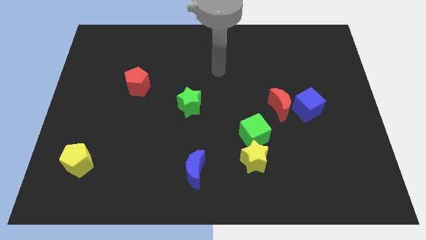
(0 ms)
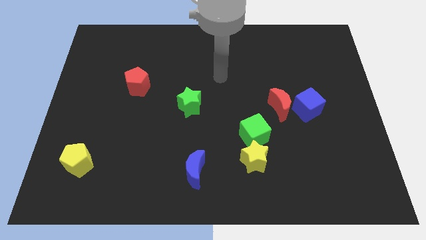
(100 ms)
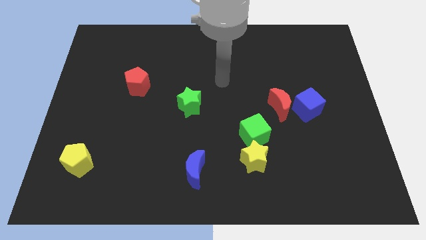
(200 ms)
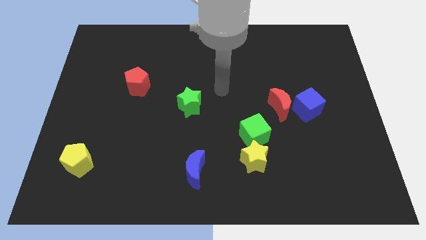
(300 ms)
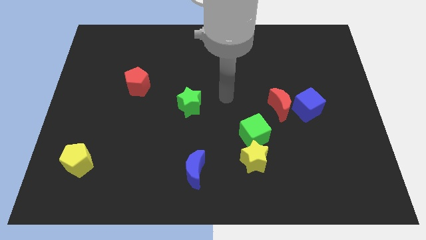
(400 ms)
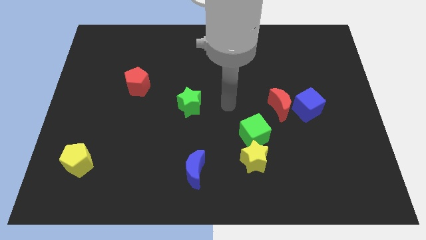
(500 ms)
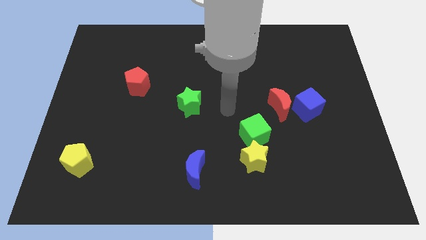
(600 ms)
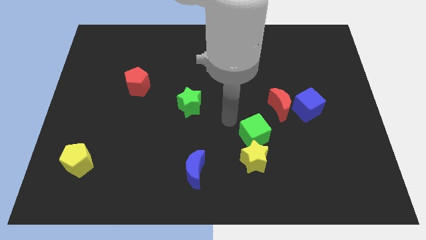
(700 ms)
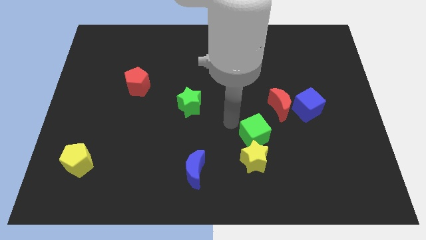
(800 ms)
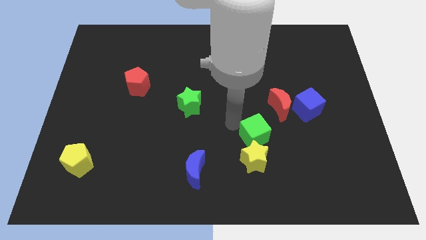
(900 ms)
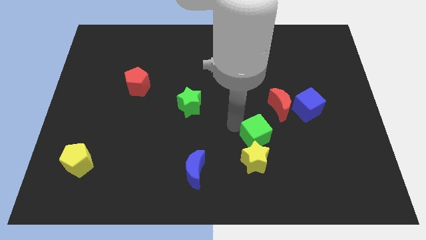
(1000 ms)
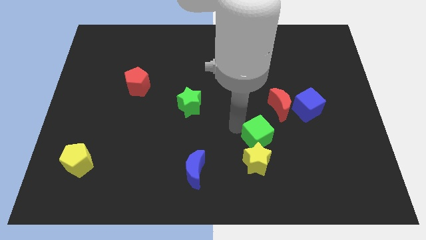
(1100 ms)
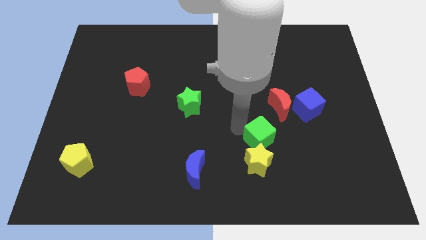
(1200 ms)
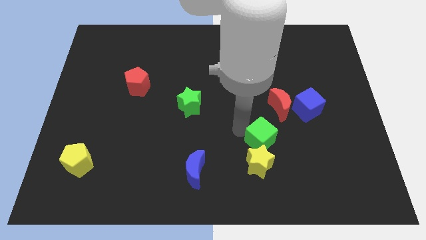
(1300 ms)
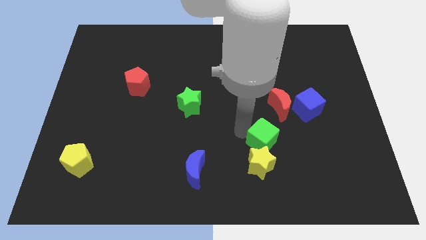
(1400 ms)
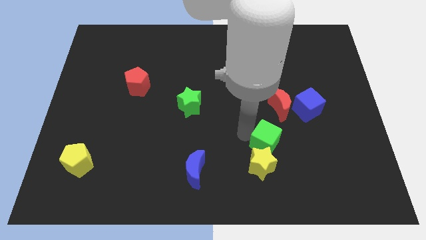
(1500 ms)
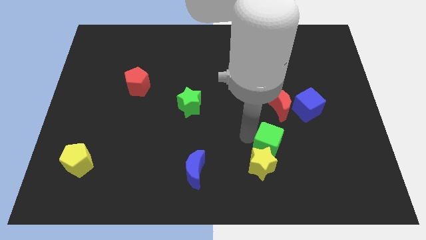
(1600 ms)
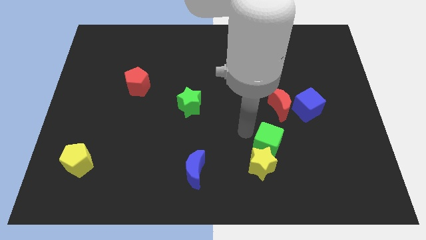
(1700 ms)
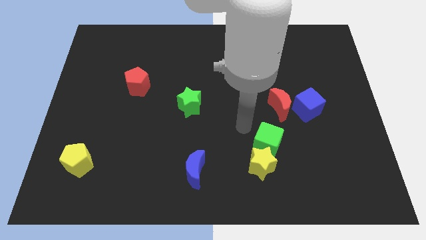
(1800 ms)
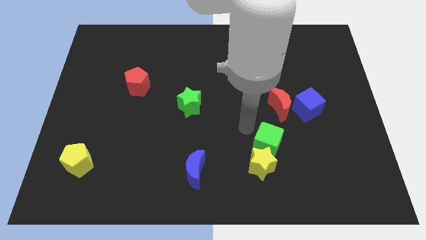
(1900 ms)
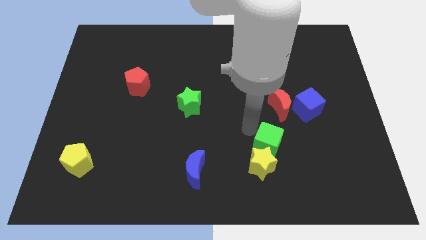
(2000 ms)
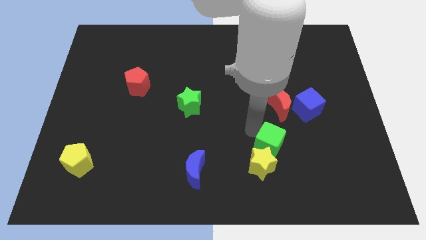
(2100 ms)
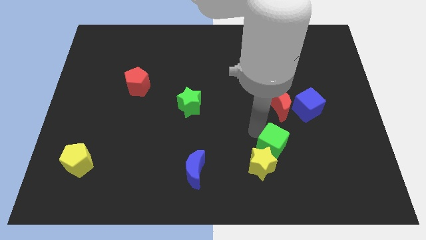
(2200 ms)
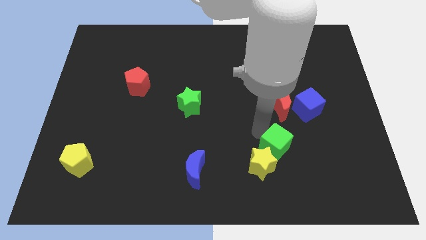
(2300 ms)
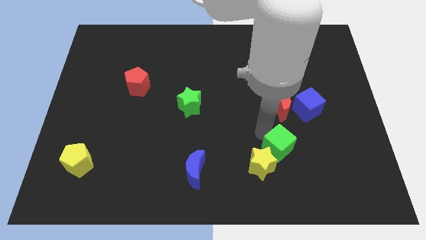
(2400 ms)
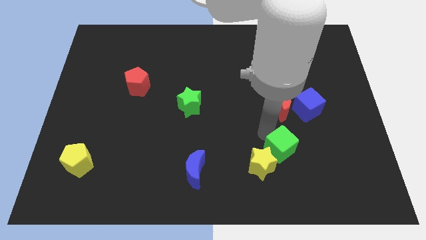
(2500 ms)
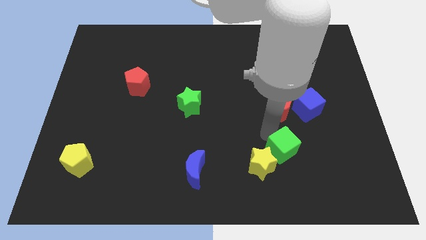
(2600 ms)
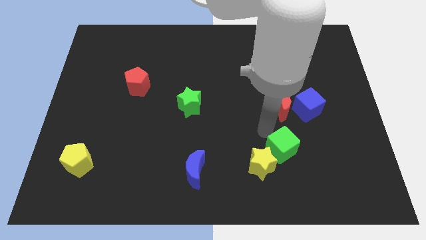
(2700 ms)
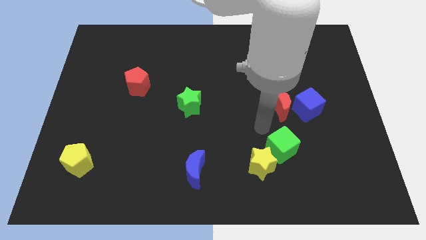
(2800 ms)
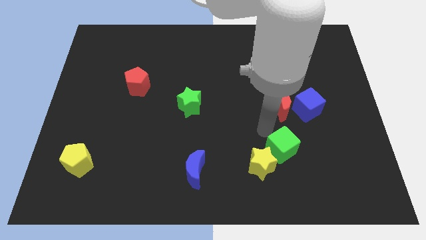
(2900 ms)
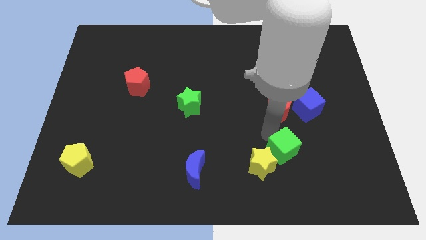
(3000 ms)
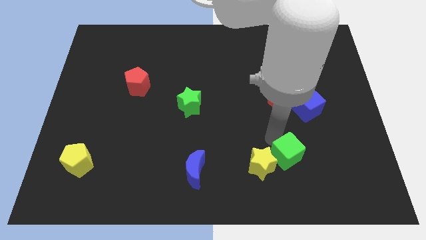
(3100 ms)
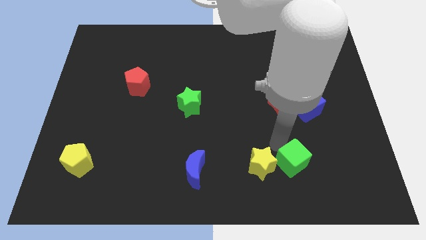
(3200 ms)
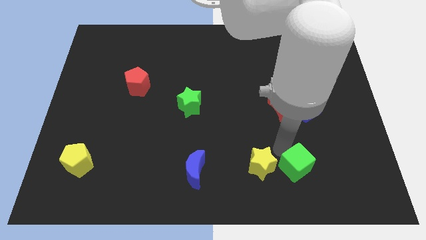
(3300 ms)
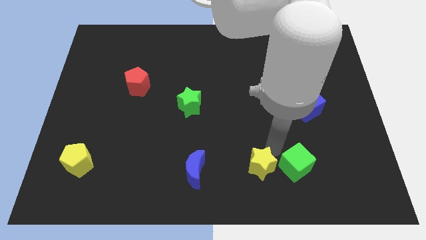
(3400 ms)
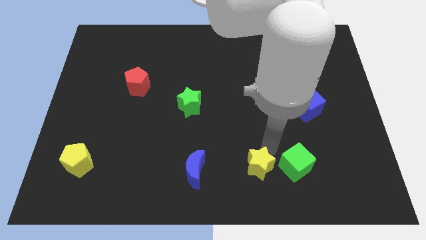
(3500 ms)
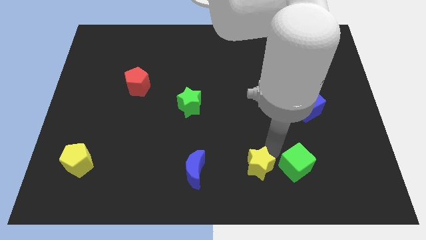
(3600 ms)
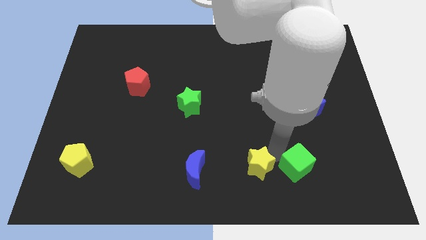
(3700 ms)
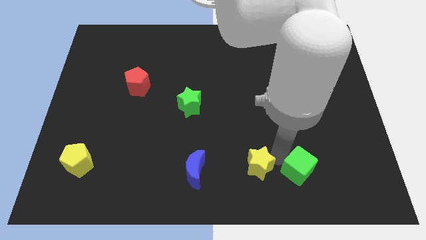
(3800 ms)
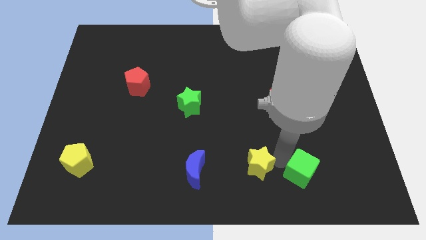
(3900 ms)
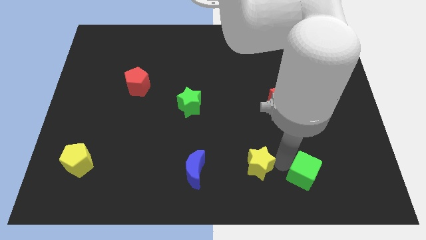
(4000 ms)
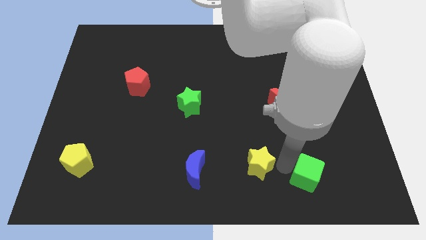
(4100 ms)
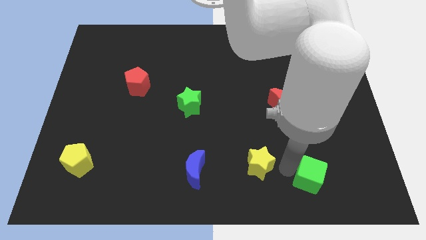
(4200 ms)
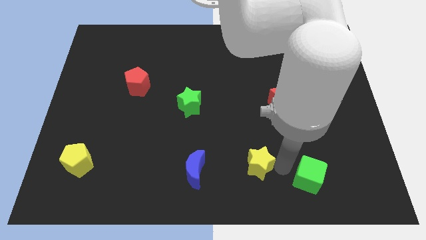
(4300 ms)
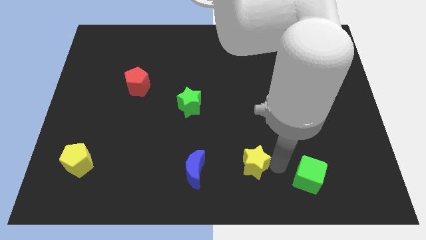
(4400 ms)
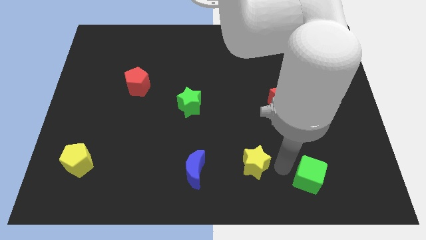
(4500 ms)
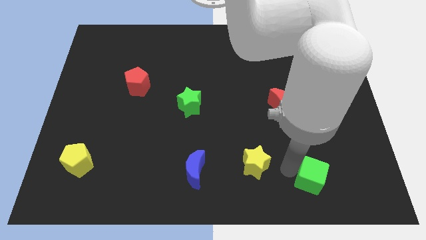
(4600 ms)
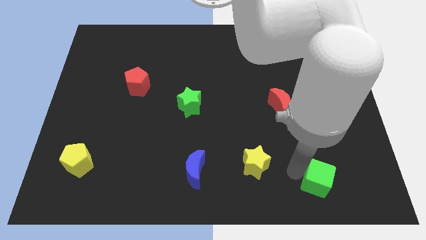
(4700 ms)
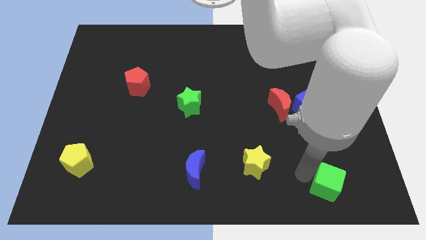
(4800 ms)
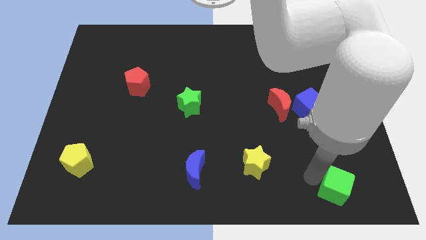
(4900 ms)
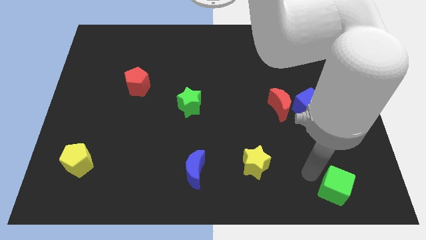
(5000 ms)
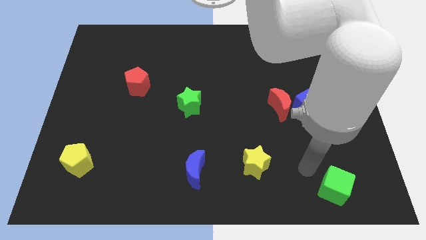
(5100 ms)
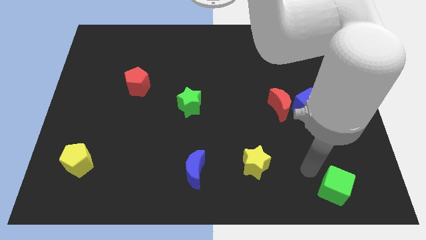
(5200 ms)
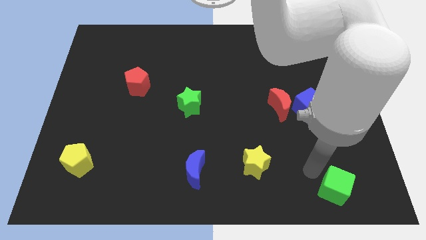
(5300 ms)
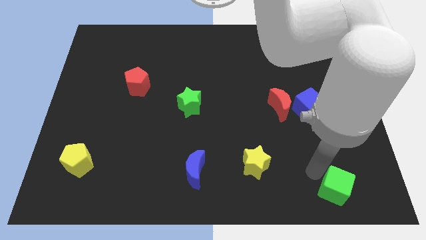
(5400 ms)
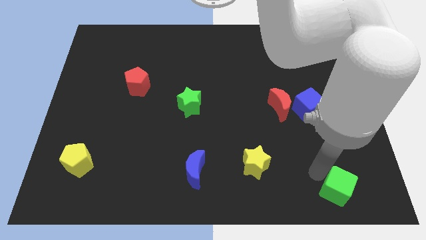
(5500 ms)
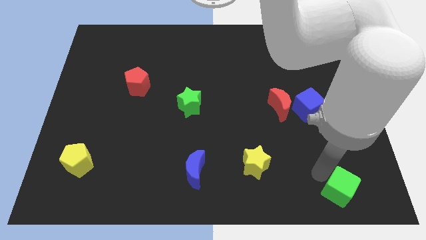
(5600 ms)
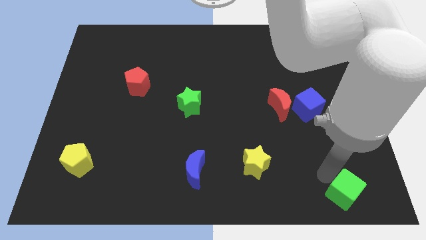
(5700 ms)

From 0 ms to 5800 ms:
move the green cube to the bottom right of the board
